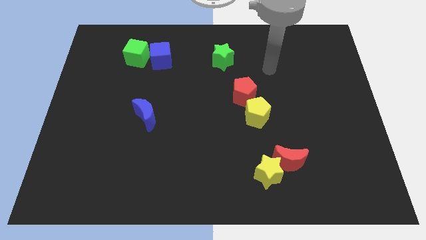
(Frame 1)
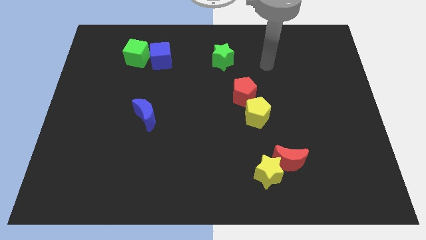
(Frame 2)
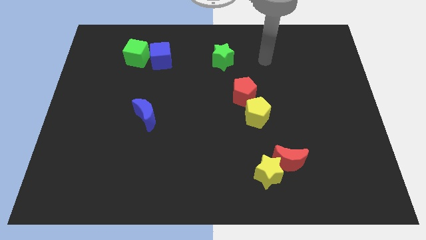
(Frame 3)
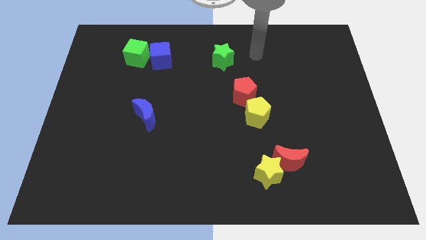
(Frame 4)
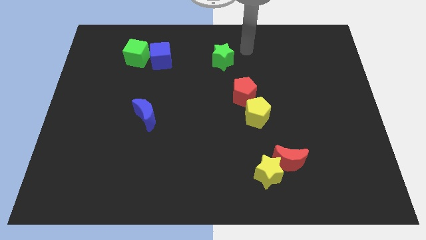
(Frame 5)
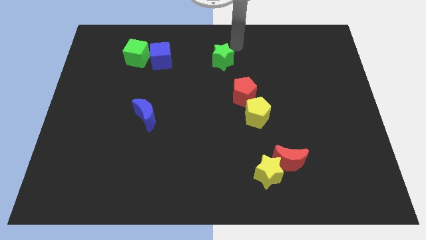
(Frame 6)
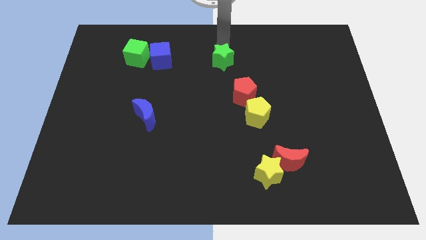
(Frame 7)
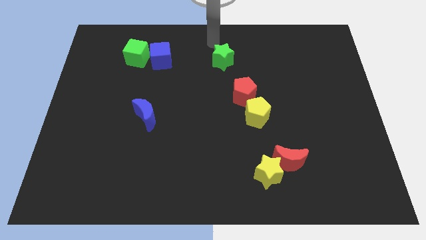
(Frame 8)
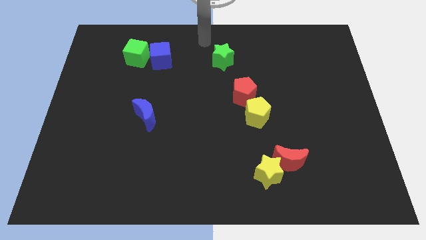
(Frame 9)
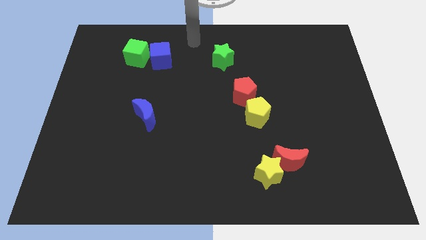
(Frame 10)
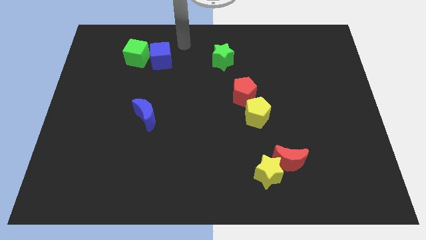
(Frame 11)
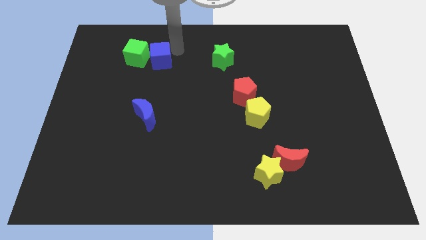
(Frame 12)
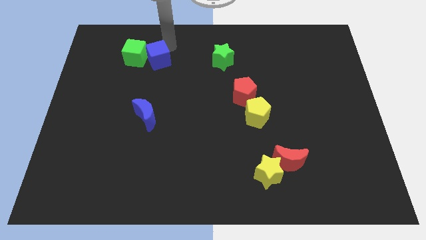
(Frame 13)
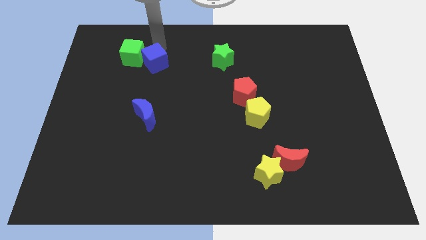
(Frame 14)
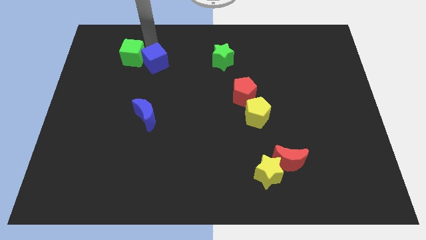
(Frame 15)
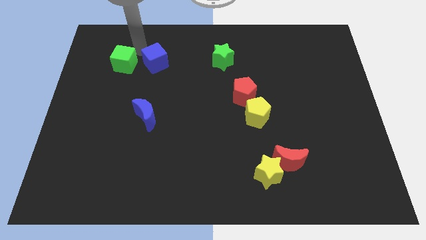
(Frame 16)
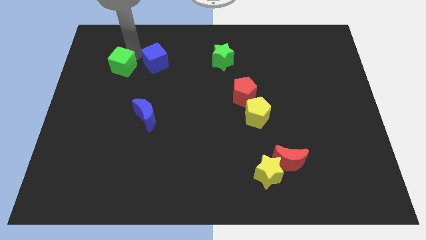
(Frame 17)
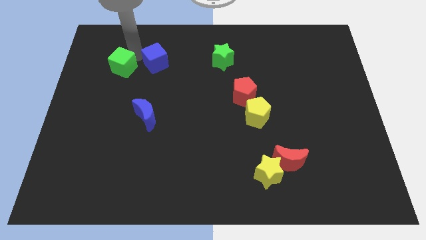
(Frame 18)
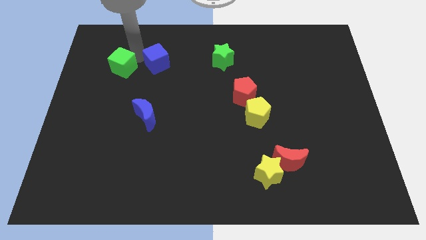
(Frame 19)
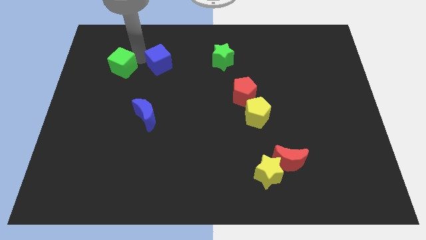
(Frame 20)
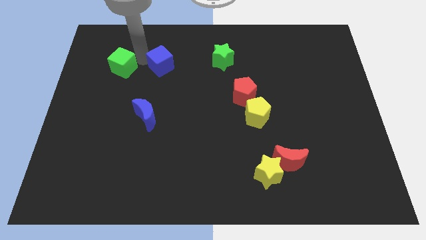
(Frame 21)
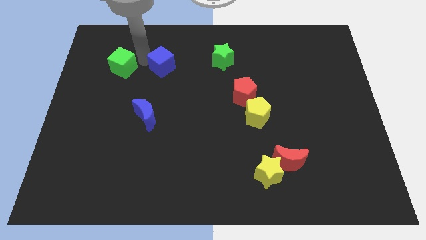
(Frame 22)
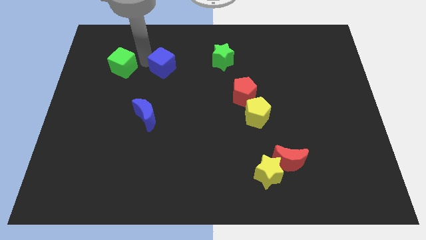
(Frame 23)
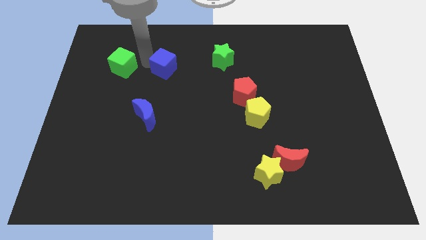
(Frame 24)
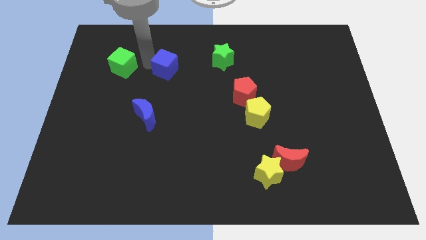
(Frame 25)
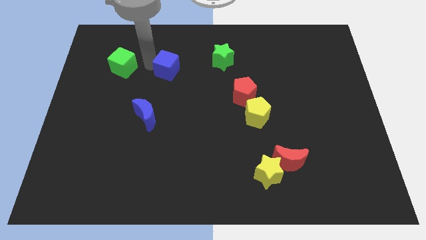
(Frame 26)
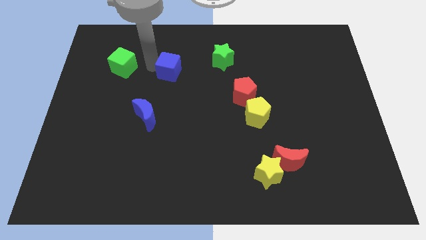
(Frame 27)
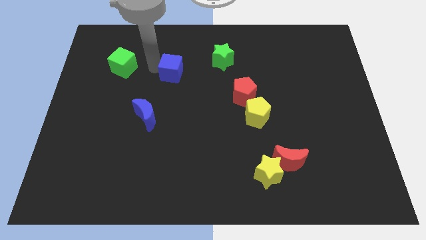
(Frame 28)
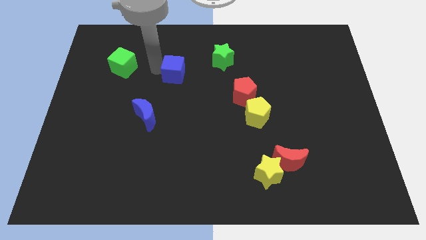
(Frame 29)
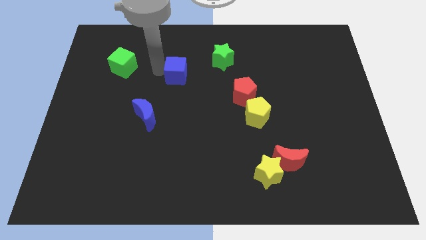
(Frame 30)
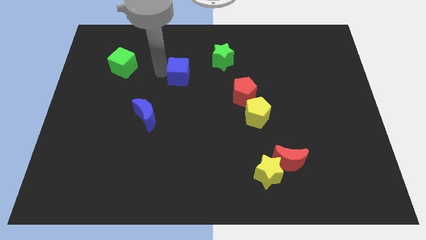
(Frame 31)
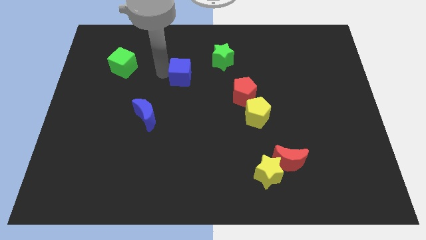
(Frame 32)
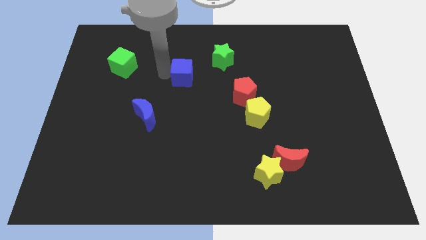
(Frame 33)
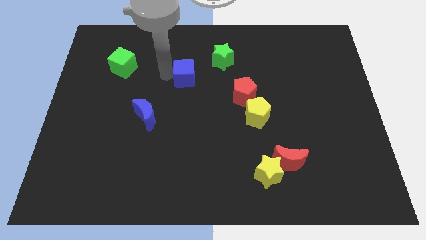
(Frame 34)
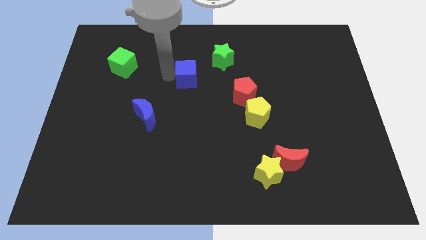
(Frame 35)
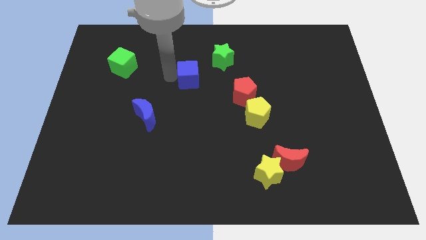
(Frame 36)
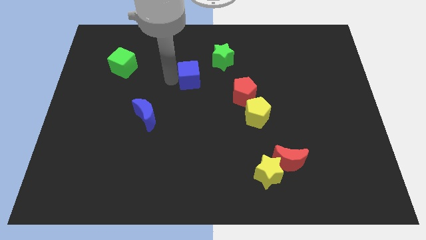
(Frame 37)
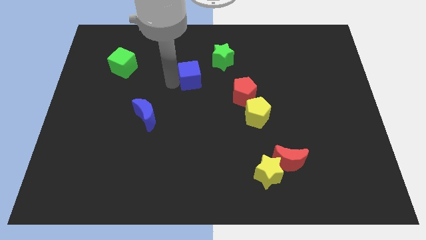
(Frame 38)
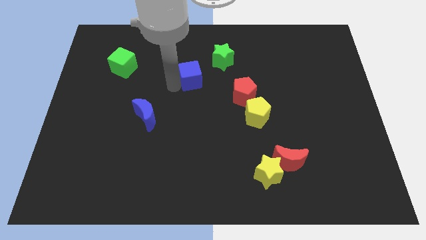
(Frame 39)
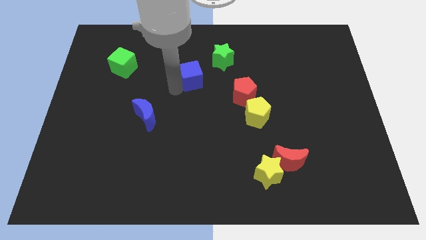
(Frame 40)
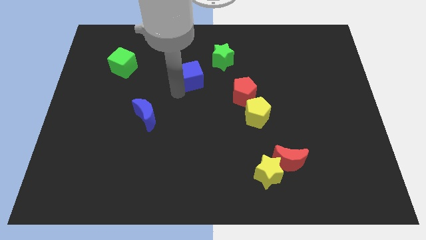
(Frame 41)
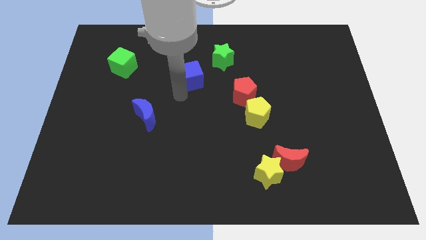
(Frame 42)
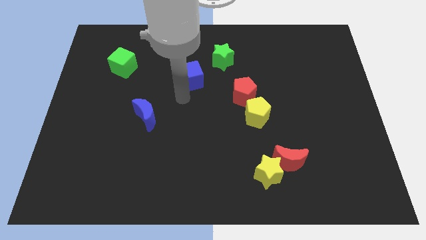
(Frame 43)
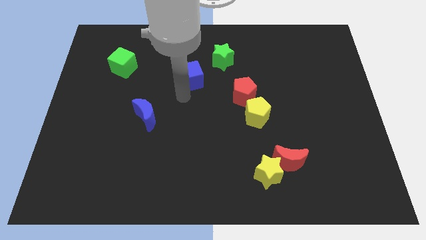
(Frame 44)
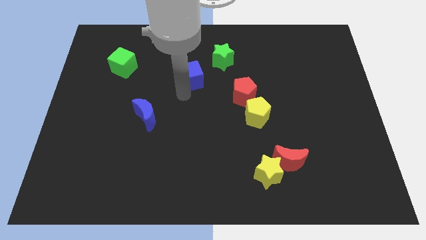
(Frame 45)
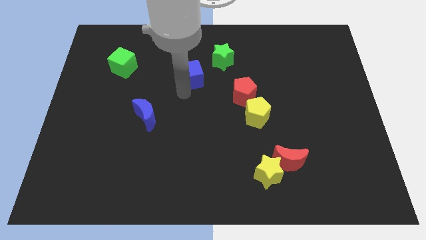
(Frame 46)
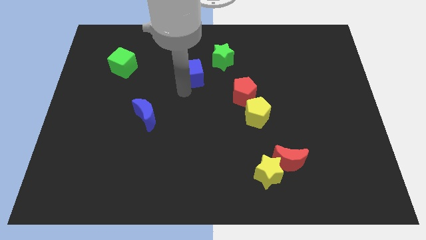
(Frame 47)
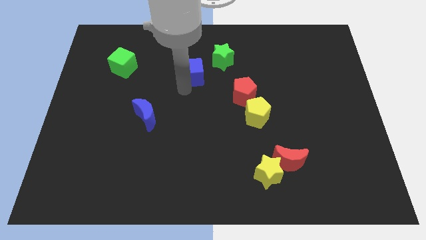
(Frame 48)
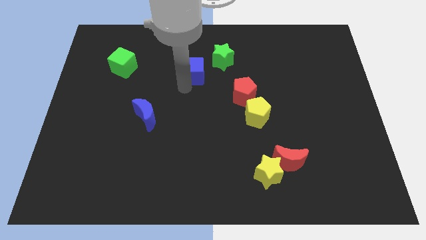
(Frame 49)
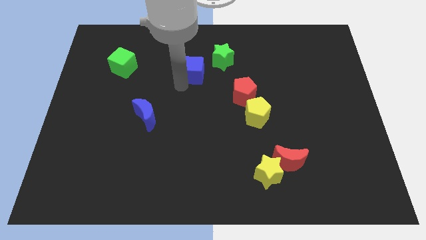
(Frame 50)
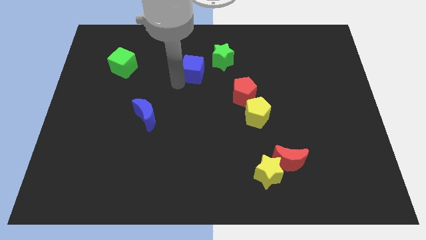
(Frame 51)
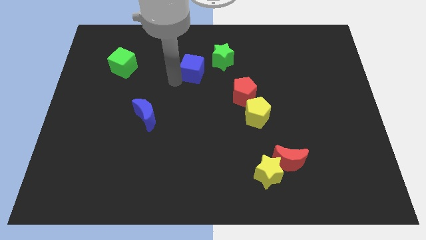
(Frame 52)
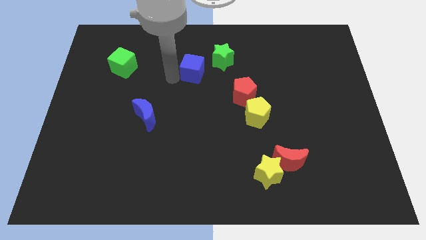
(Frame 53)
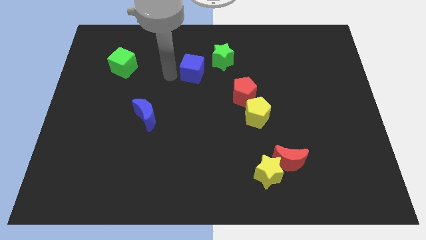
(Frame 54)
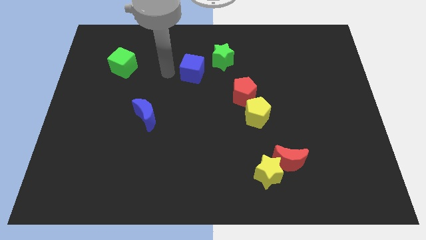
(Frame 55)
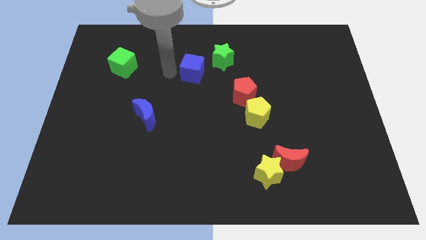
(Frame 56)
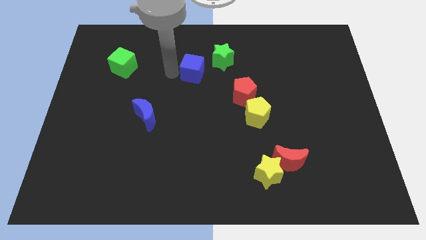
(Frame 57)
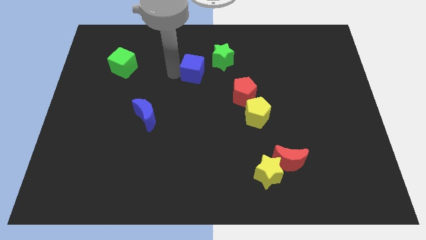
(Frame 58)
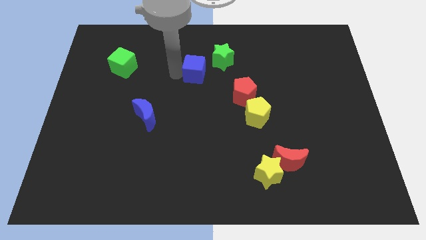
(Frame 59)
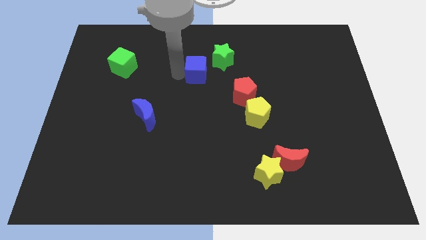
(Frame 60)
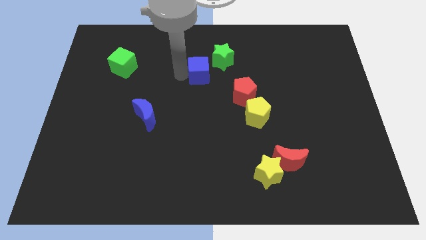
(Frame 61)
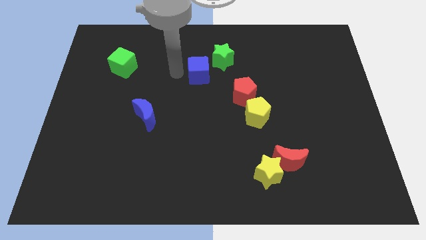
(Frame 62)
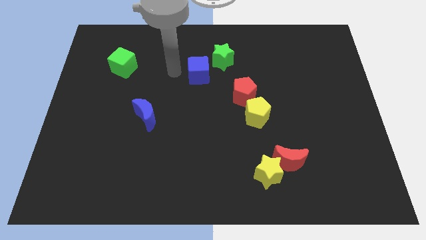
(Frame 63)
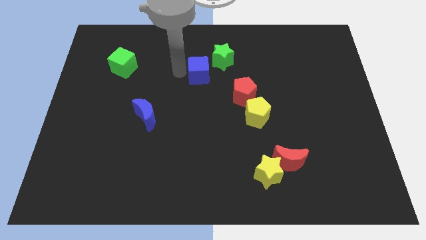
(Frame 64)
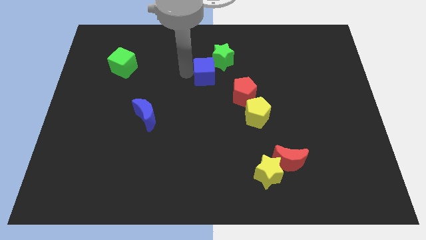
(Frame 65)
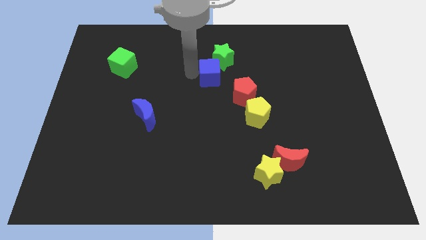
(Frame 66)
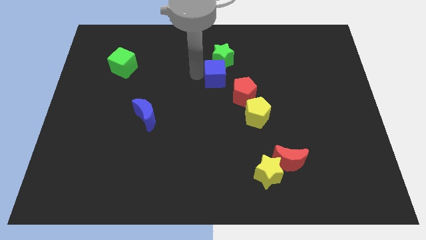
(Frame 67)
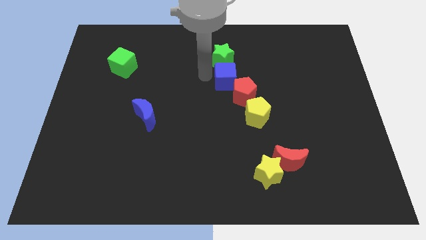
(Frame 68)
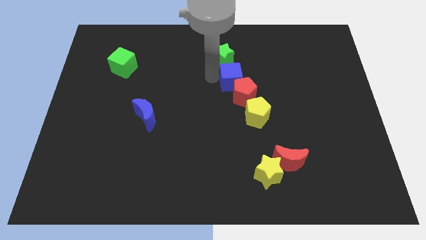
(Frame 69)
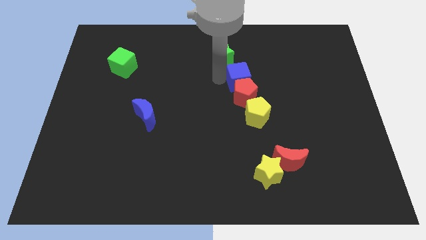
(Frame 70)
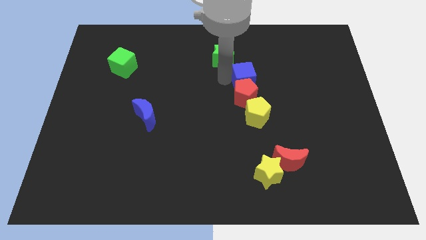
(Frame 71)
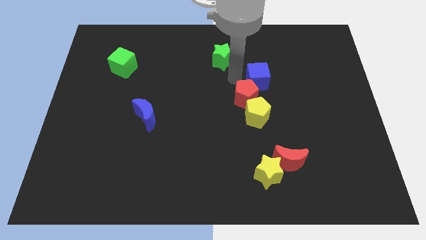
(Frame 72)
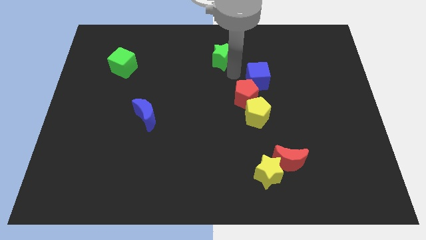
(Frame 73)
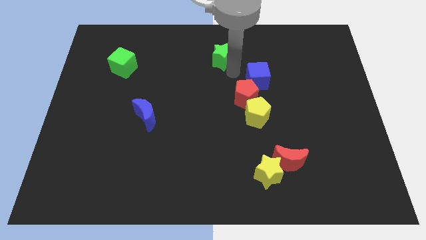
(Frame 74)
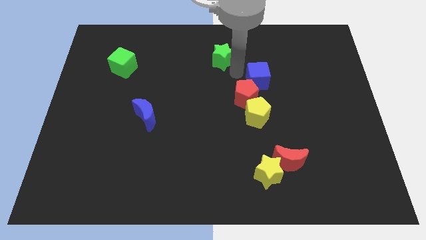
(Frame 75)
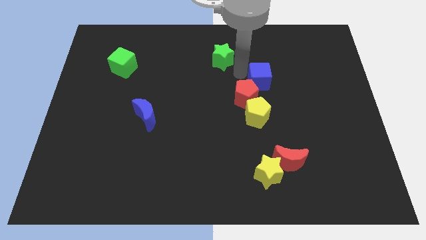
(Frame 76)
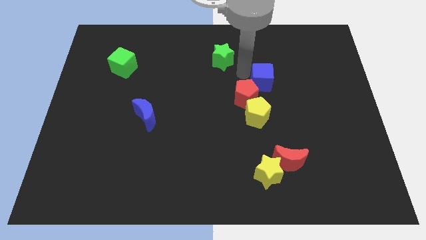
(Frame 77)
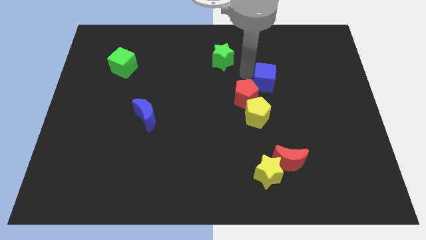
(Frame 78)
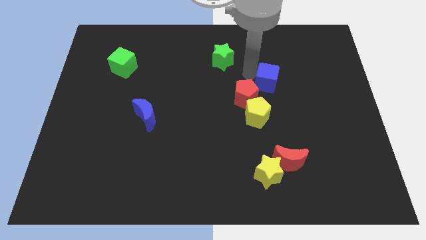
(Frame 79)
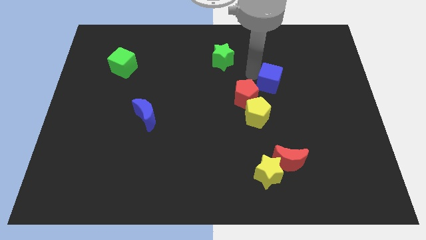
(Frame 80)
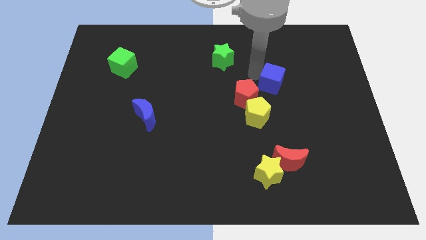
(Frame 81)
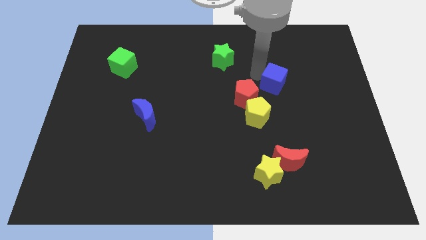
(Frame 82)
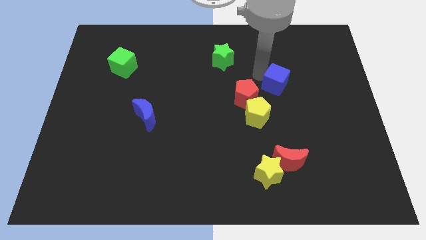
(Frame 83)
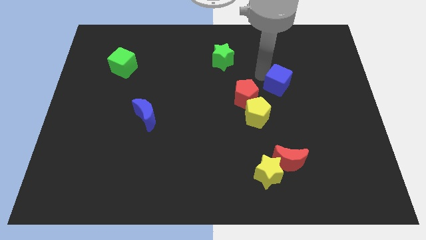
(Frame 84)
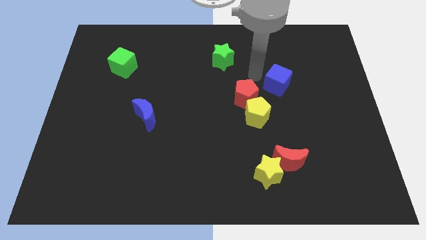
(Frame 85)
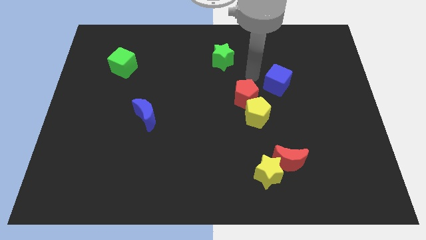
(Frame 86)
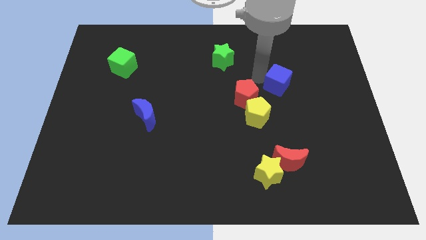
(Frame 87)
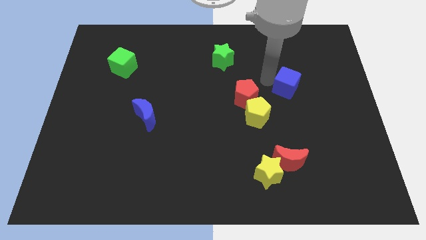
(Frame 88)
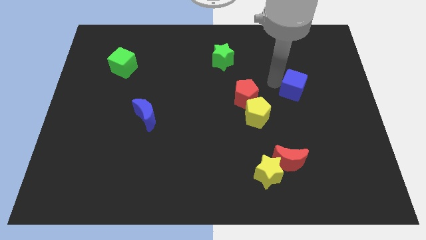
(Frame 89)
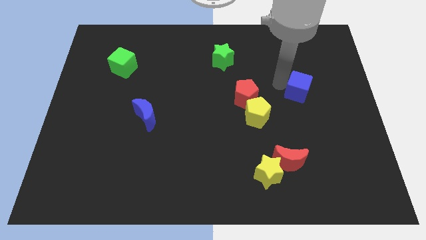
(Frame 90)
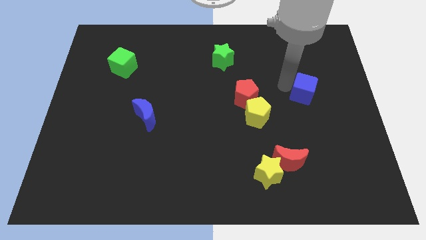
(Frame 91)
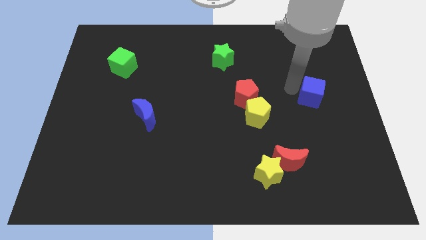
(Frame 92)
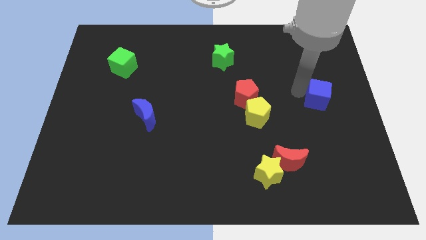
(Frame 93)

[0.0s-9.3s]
slide the blue cube to the center right
